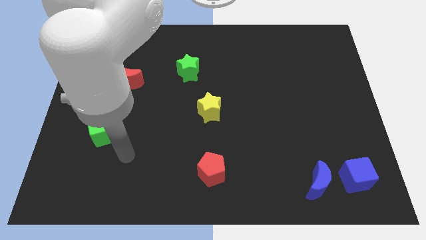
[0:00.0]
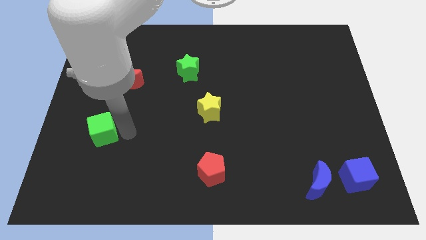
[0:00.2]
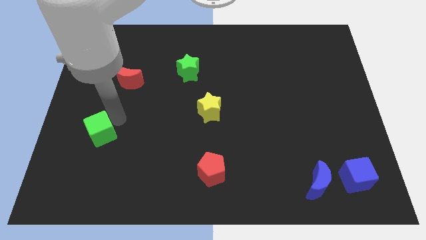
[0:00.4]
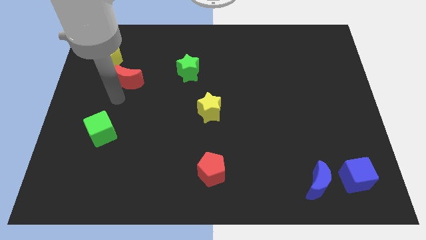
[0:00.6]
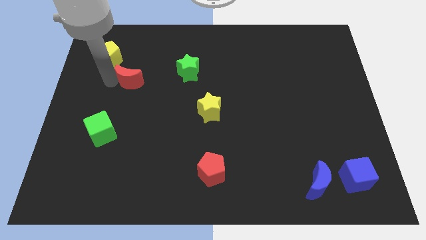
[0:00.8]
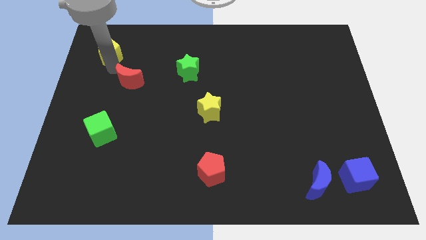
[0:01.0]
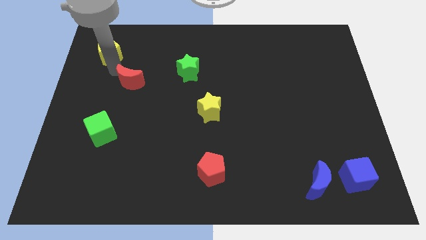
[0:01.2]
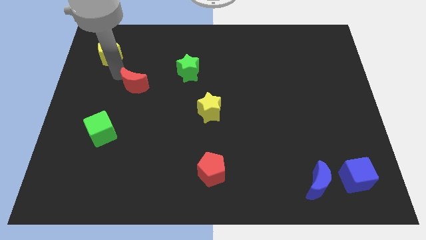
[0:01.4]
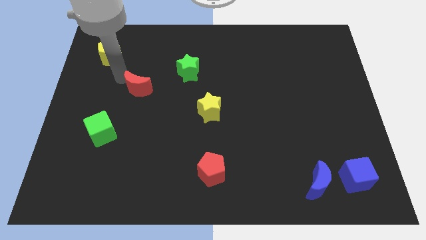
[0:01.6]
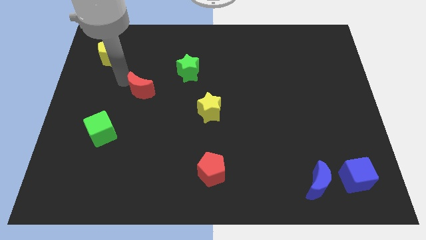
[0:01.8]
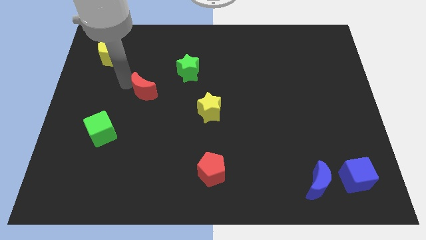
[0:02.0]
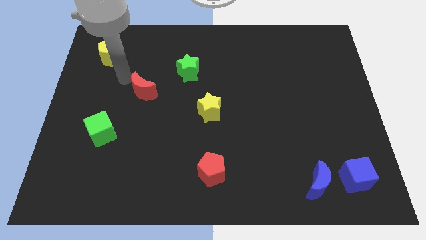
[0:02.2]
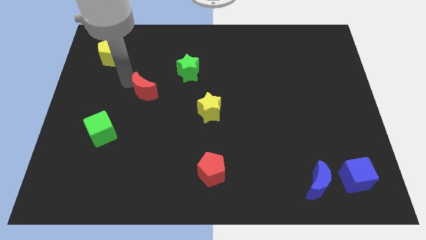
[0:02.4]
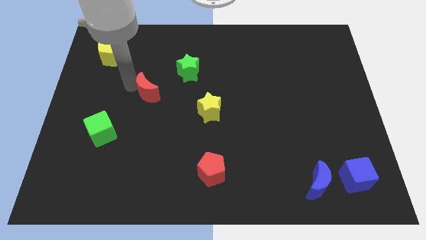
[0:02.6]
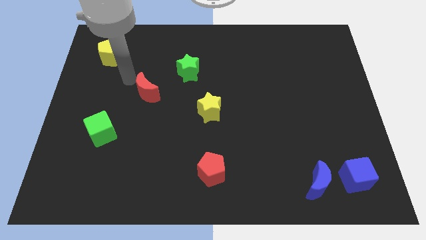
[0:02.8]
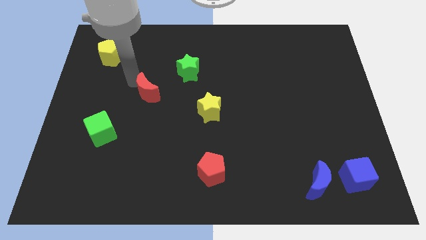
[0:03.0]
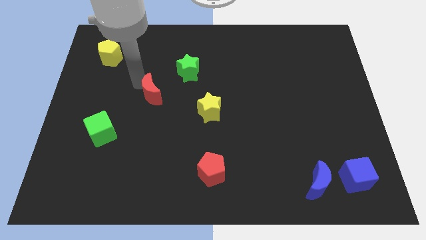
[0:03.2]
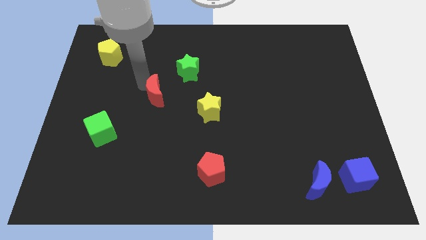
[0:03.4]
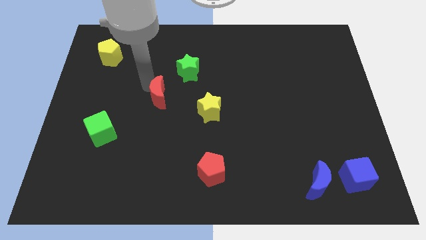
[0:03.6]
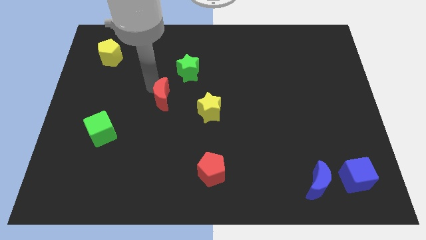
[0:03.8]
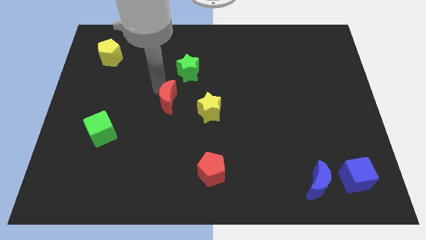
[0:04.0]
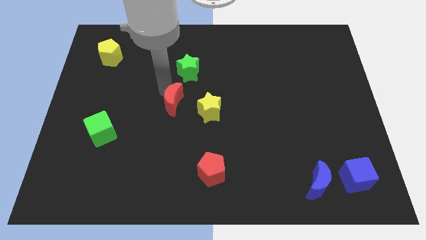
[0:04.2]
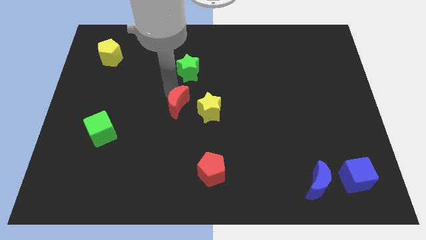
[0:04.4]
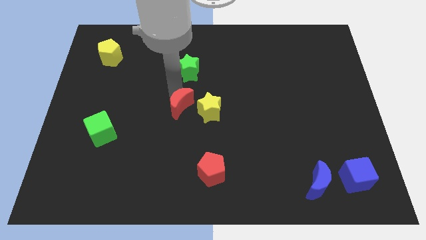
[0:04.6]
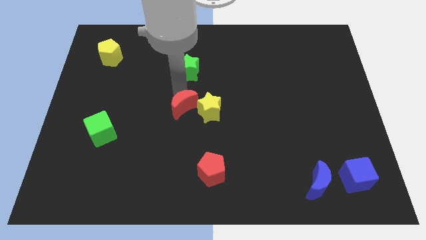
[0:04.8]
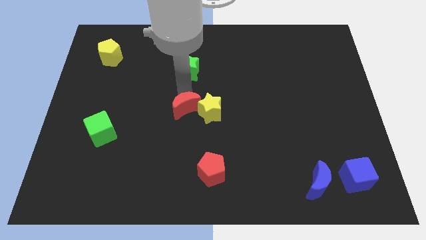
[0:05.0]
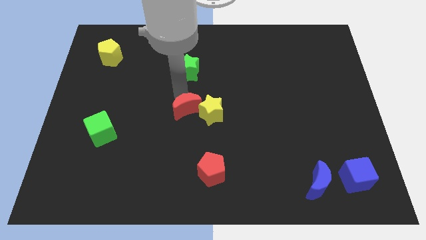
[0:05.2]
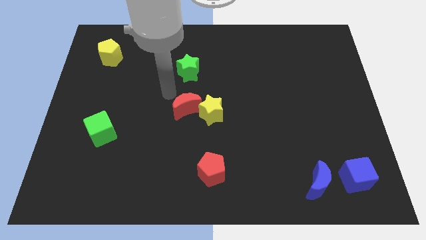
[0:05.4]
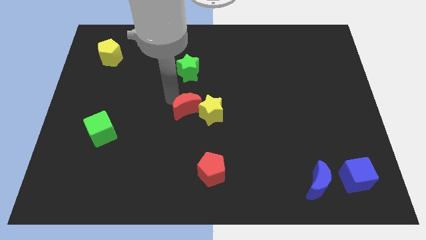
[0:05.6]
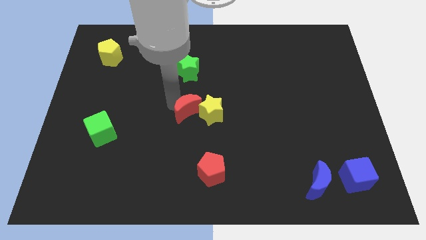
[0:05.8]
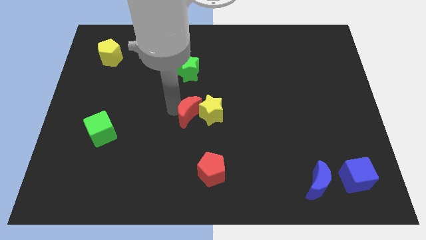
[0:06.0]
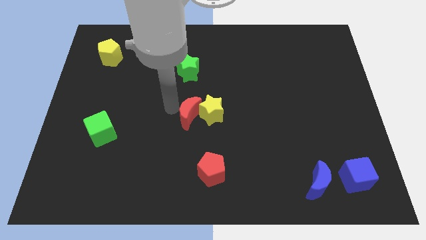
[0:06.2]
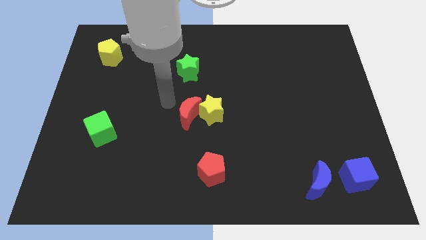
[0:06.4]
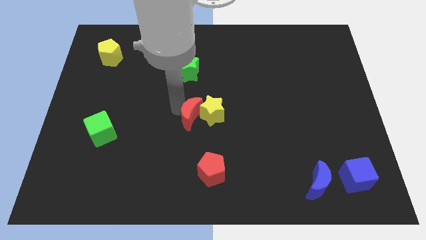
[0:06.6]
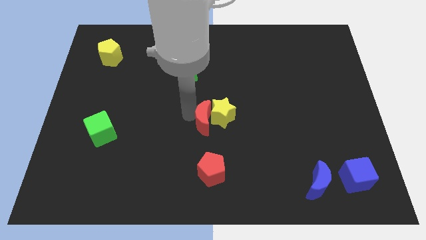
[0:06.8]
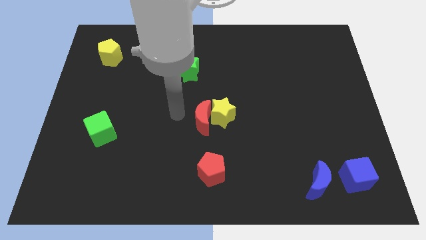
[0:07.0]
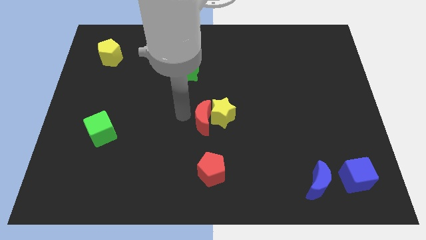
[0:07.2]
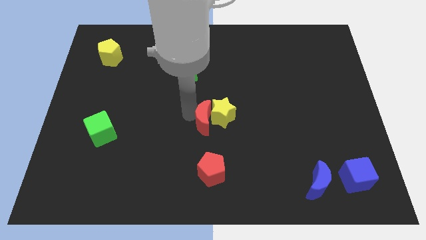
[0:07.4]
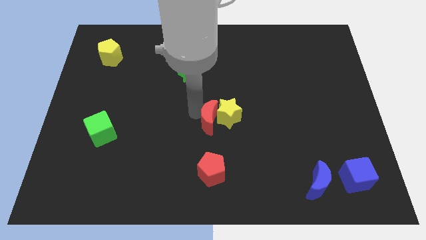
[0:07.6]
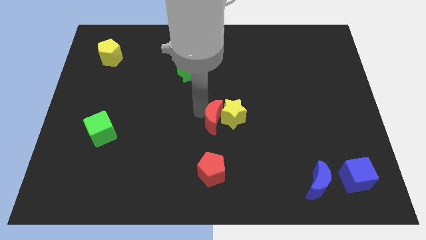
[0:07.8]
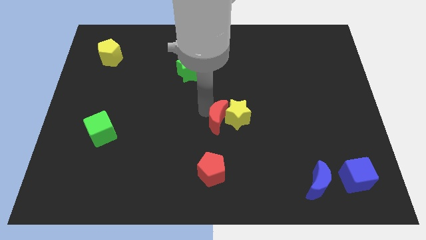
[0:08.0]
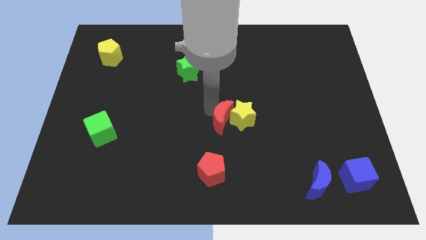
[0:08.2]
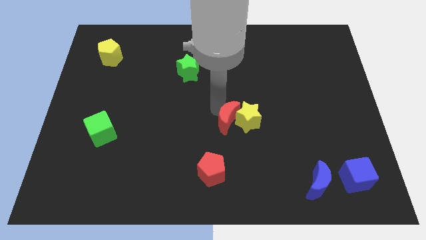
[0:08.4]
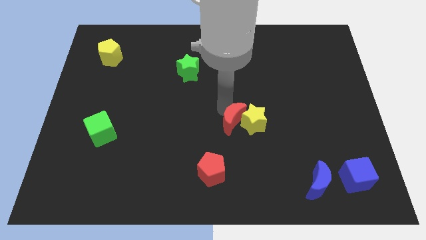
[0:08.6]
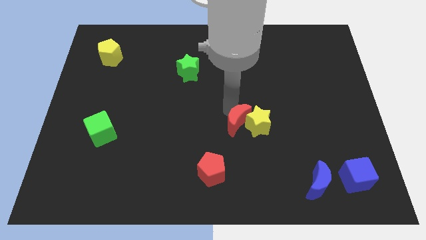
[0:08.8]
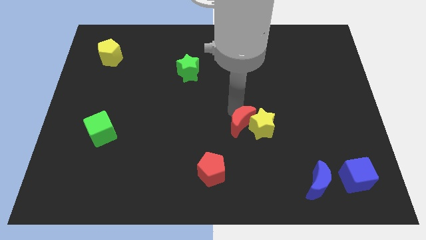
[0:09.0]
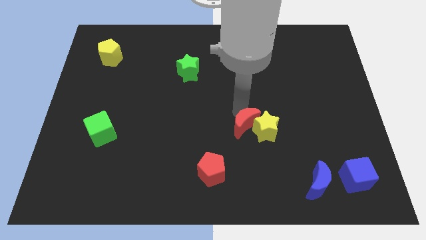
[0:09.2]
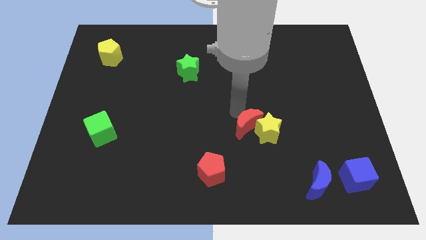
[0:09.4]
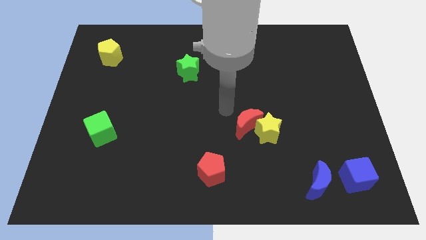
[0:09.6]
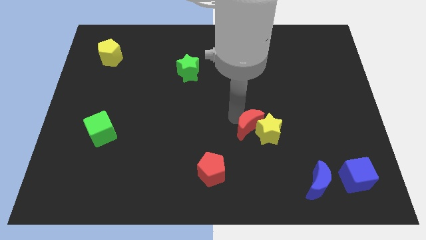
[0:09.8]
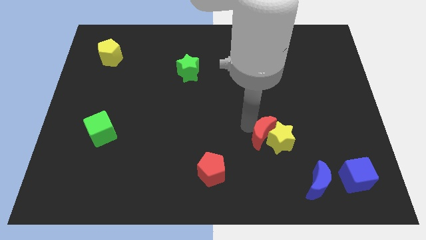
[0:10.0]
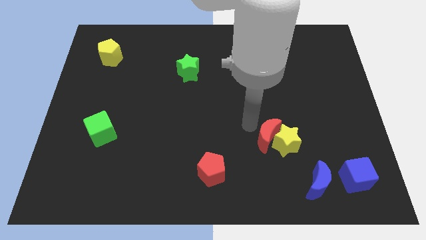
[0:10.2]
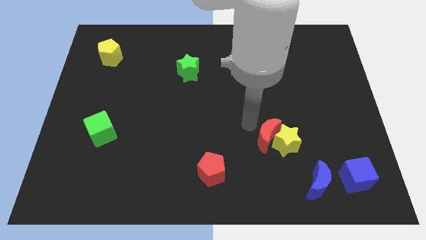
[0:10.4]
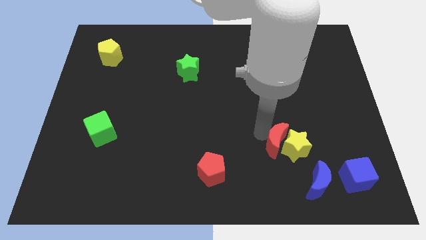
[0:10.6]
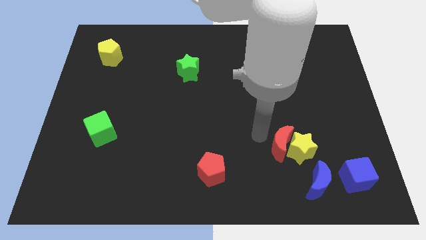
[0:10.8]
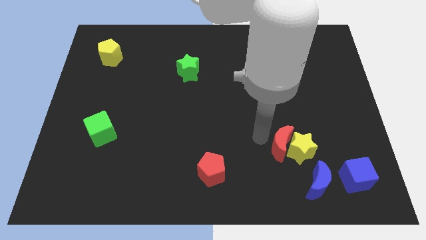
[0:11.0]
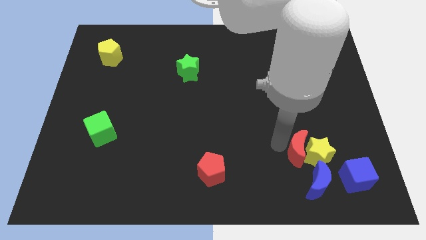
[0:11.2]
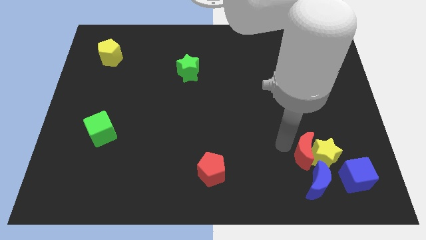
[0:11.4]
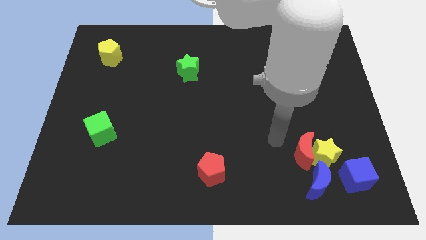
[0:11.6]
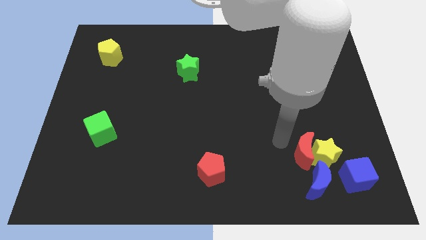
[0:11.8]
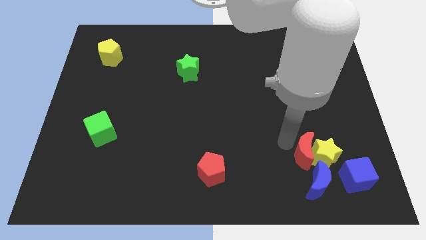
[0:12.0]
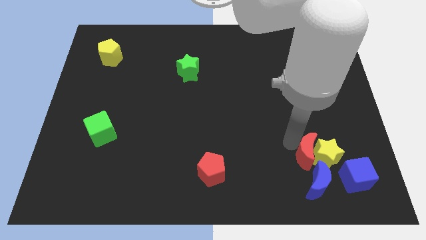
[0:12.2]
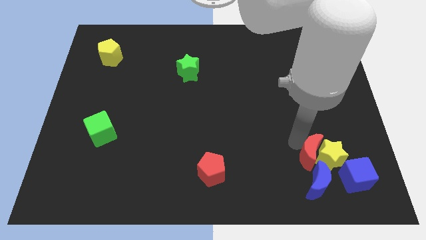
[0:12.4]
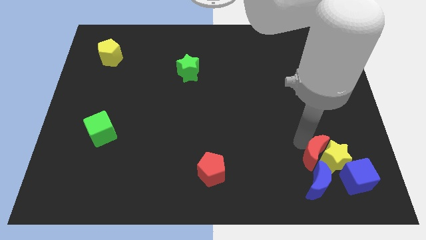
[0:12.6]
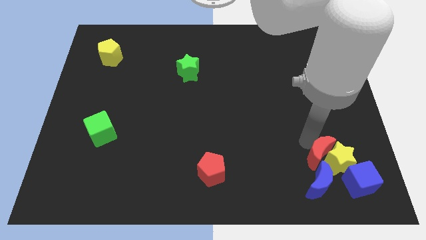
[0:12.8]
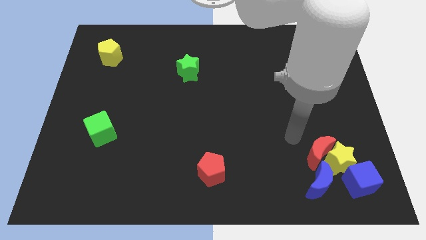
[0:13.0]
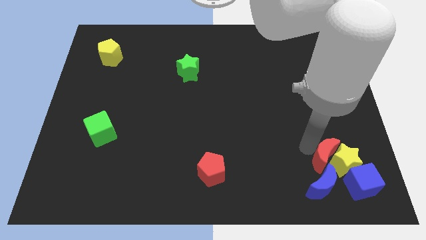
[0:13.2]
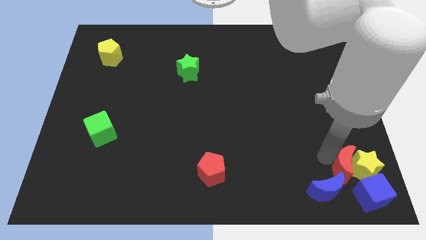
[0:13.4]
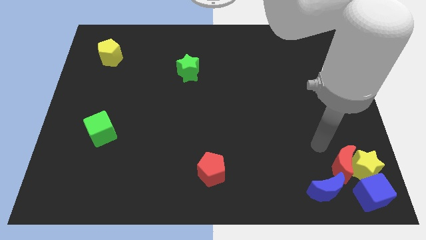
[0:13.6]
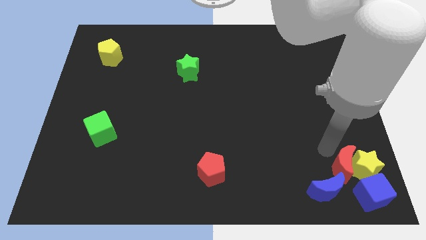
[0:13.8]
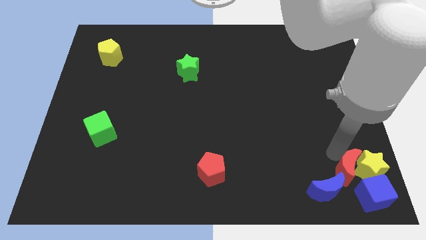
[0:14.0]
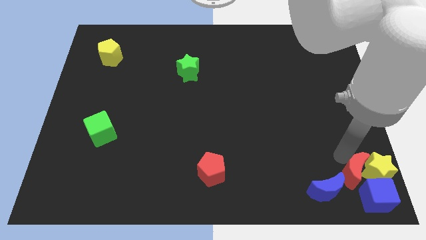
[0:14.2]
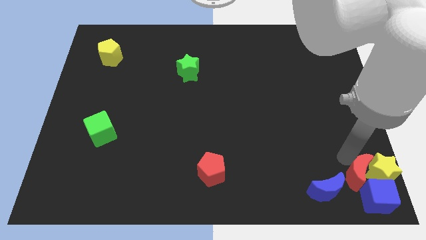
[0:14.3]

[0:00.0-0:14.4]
put the red moon close to the blue cube
